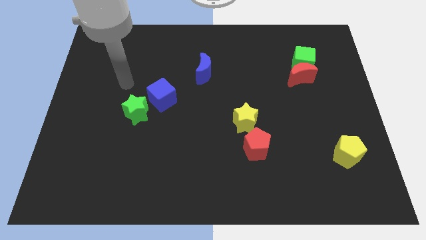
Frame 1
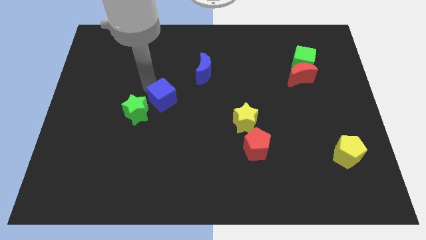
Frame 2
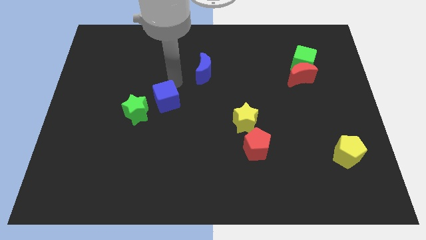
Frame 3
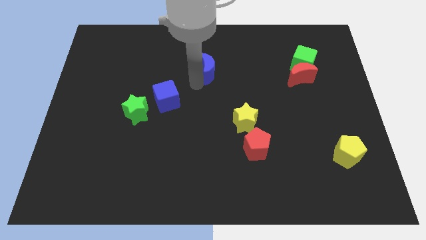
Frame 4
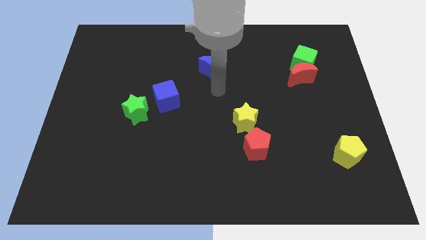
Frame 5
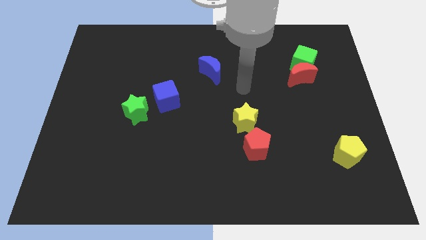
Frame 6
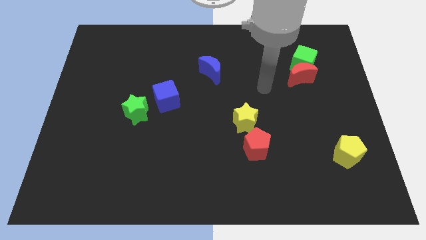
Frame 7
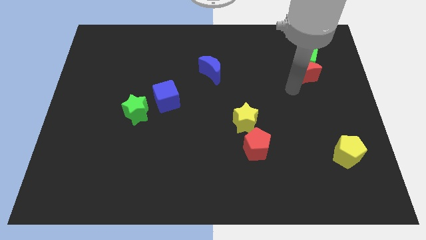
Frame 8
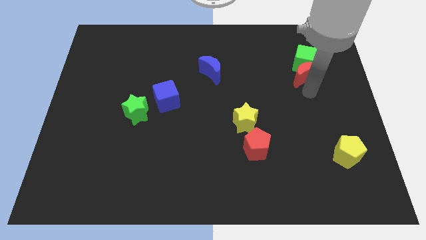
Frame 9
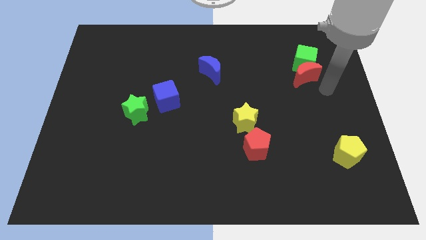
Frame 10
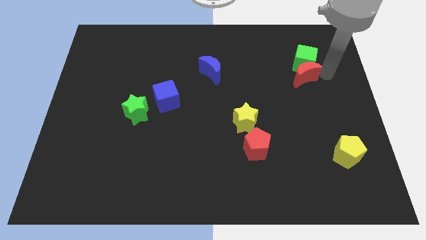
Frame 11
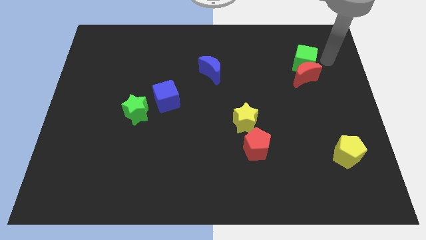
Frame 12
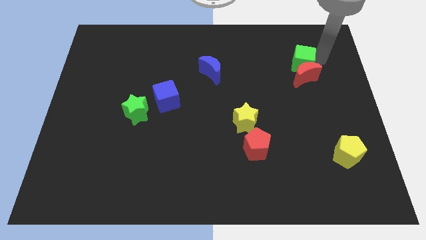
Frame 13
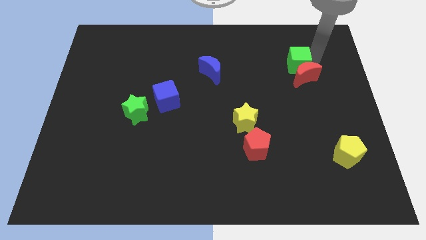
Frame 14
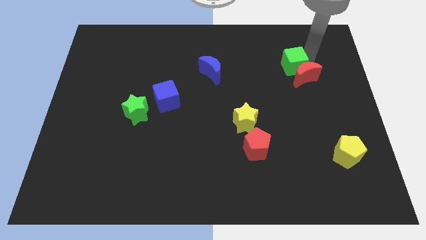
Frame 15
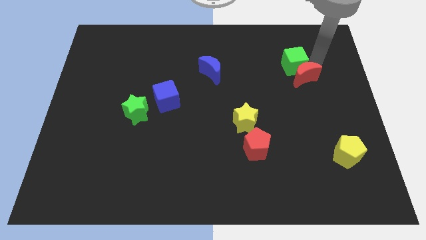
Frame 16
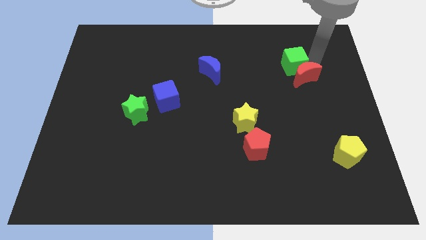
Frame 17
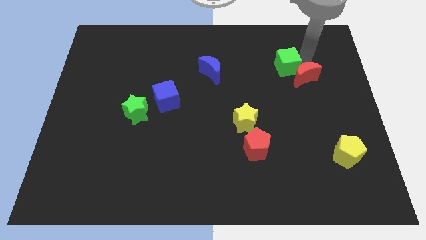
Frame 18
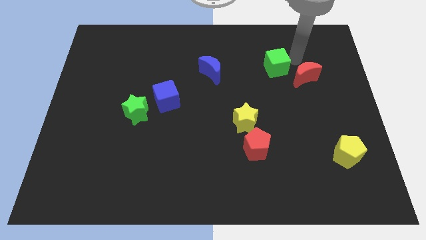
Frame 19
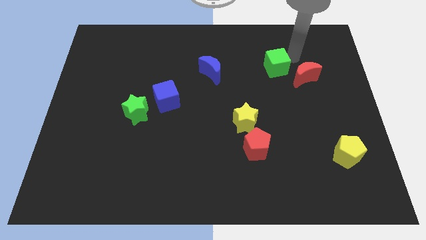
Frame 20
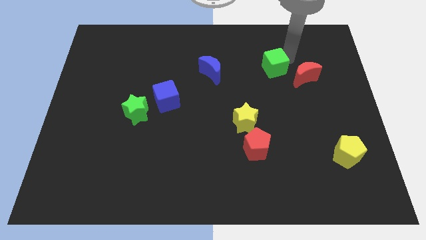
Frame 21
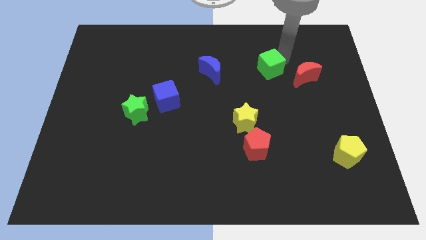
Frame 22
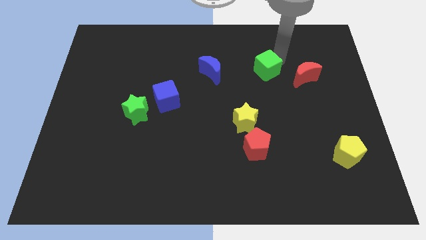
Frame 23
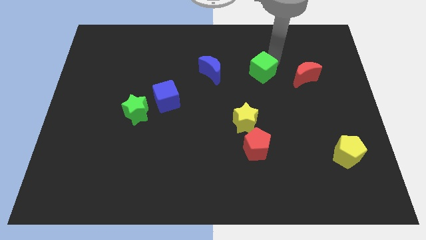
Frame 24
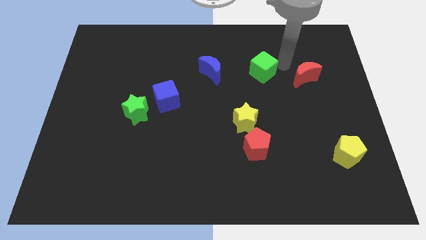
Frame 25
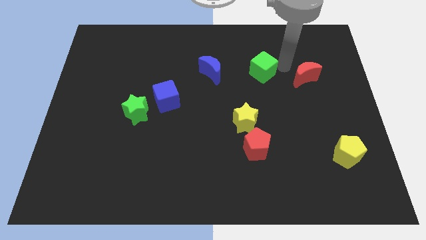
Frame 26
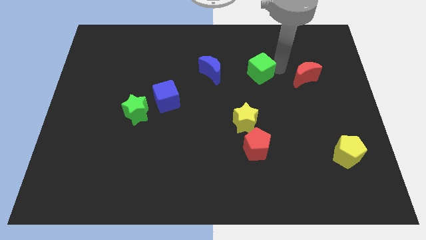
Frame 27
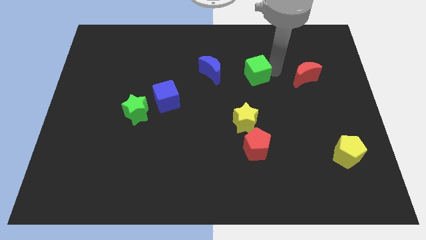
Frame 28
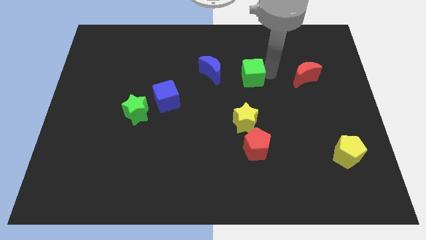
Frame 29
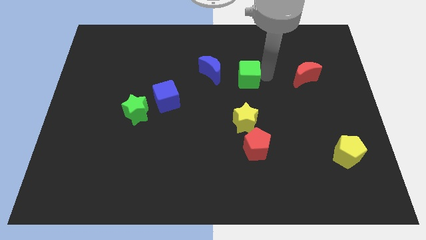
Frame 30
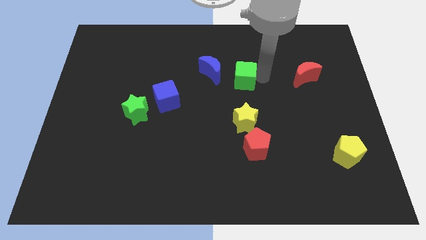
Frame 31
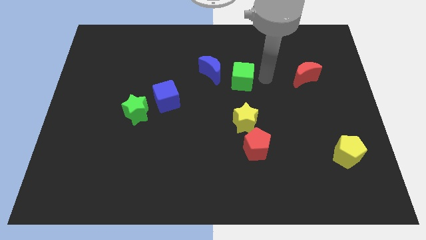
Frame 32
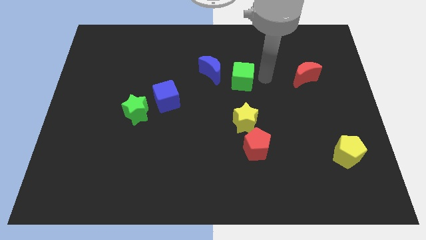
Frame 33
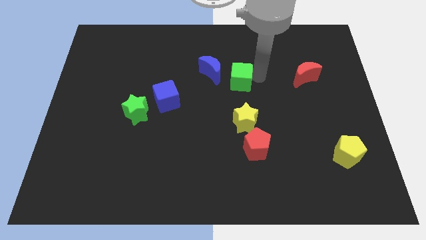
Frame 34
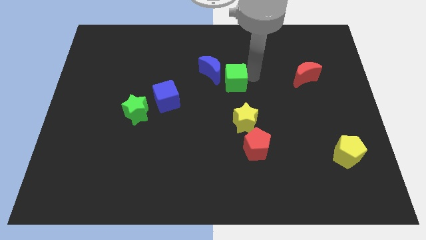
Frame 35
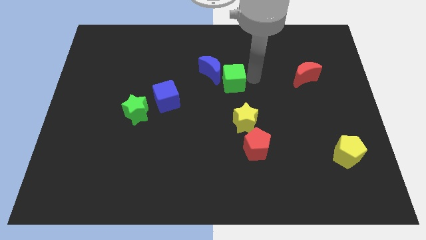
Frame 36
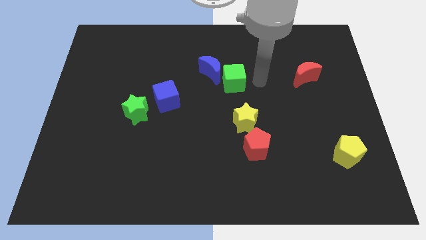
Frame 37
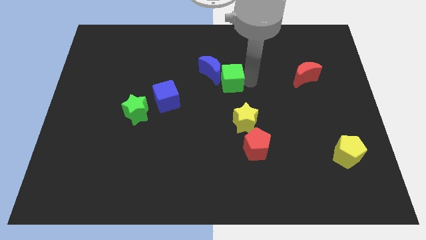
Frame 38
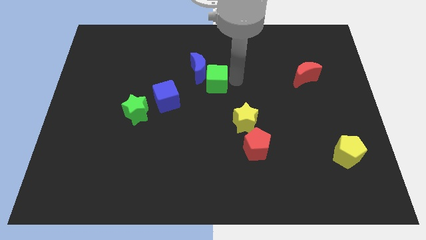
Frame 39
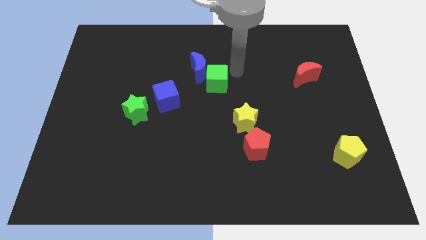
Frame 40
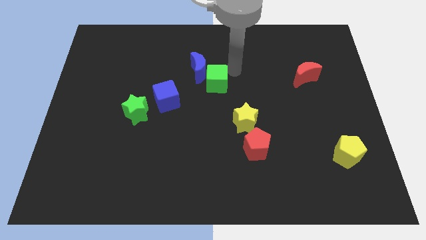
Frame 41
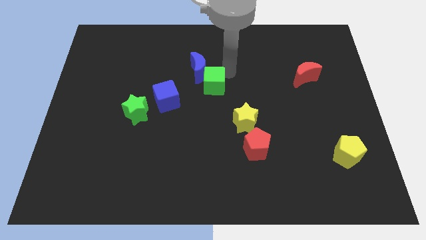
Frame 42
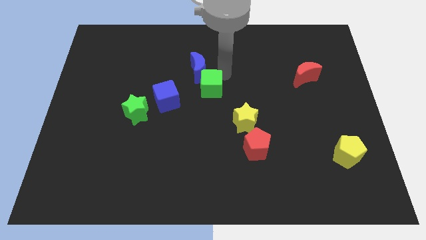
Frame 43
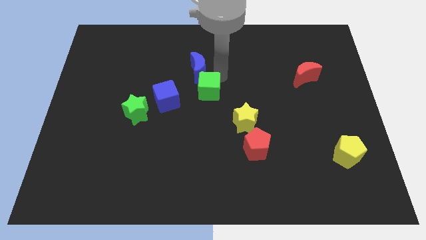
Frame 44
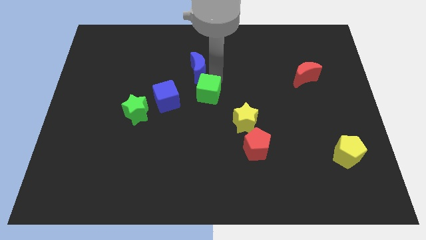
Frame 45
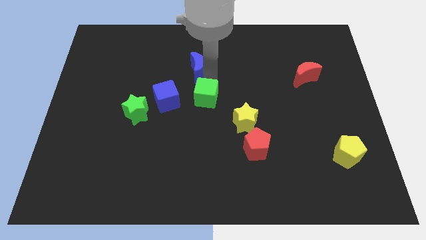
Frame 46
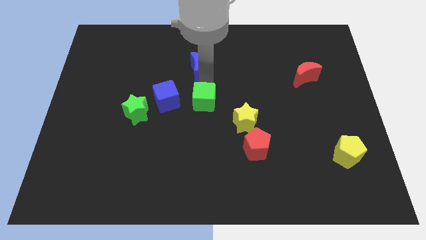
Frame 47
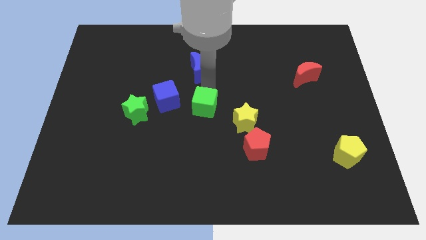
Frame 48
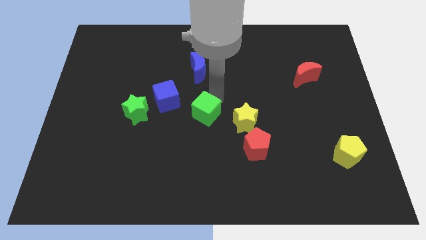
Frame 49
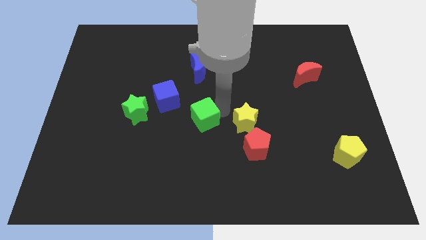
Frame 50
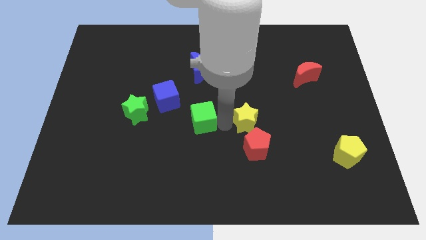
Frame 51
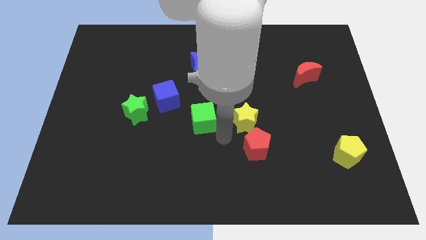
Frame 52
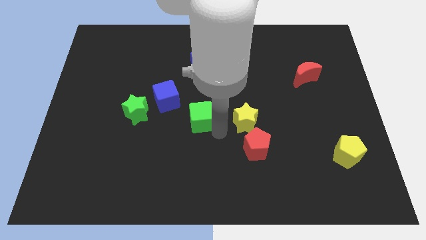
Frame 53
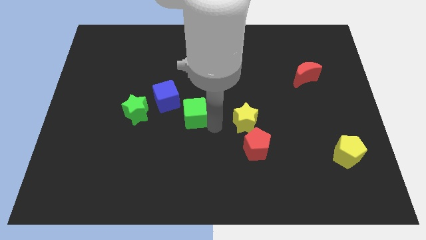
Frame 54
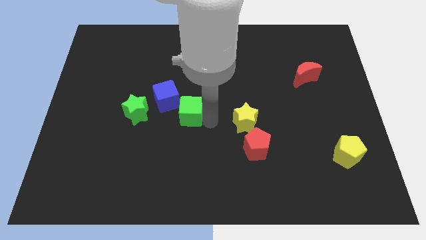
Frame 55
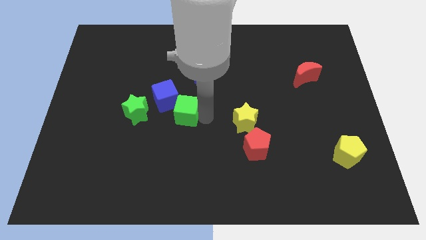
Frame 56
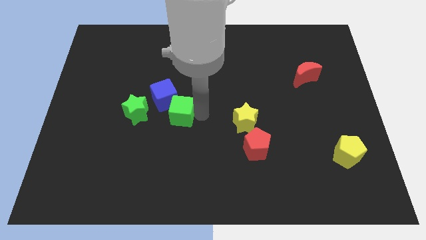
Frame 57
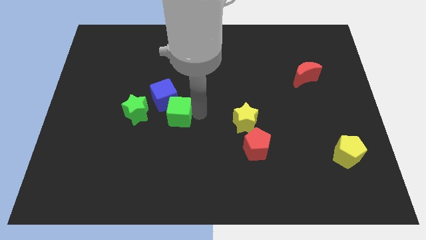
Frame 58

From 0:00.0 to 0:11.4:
slide the green cube towards the blue cube

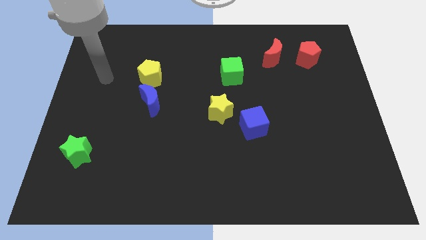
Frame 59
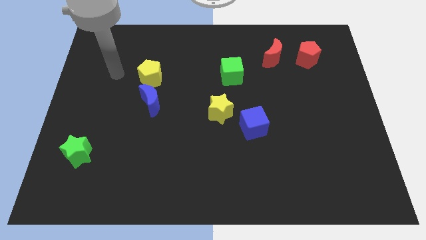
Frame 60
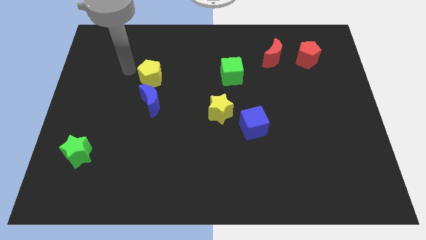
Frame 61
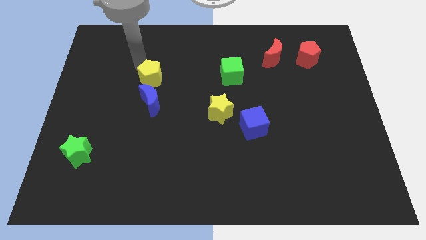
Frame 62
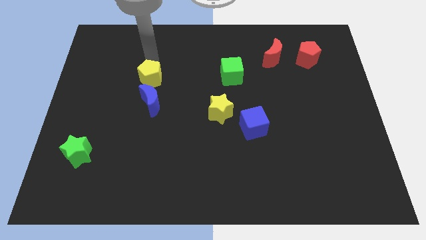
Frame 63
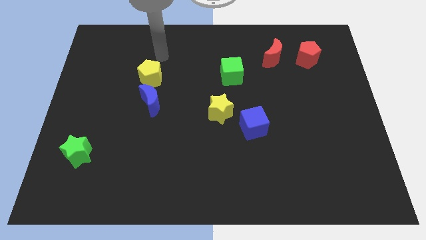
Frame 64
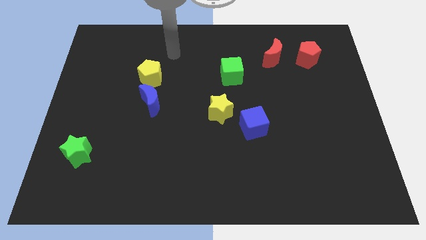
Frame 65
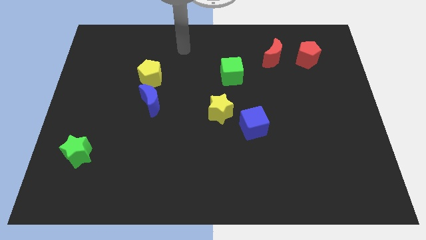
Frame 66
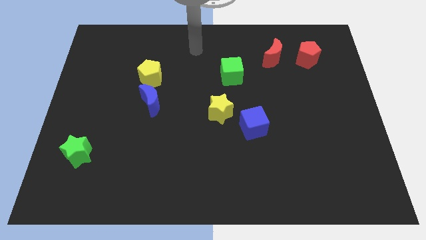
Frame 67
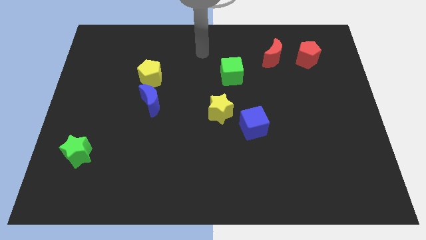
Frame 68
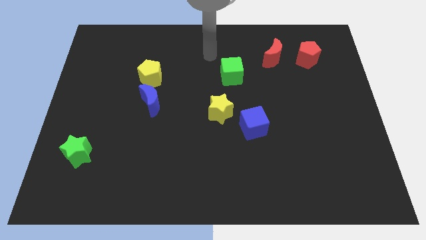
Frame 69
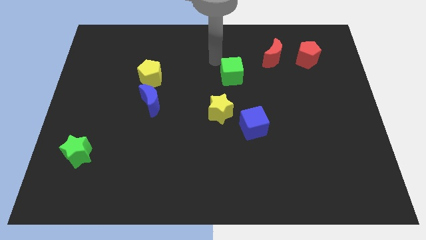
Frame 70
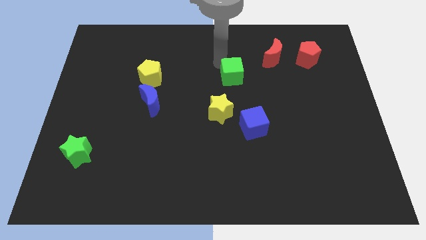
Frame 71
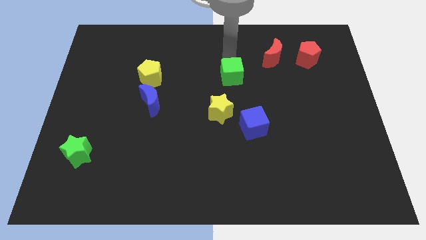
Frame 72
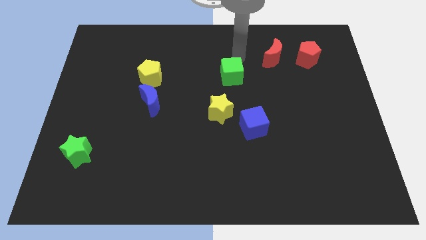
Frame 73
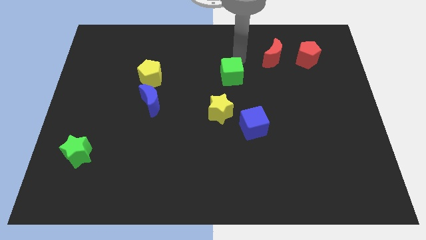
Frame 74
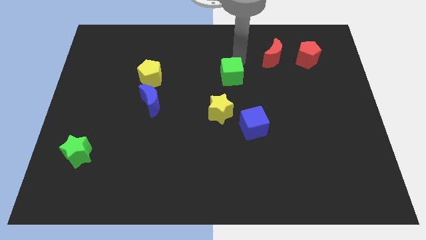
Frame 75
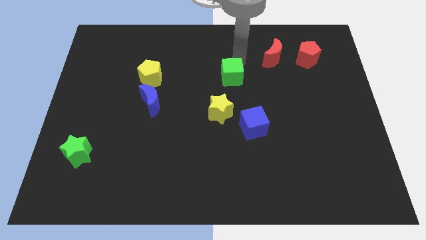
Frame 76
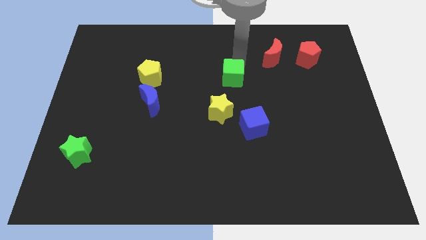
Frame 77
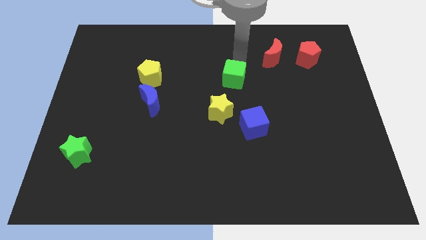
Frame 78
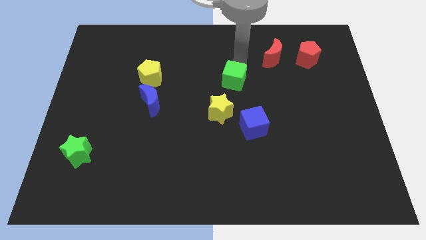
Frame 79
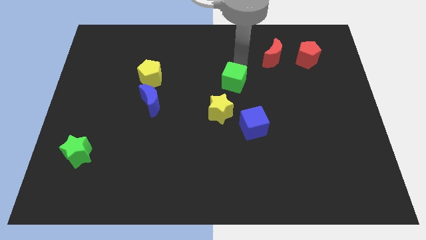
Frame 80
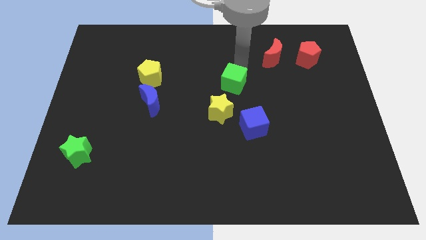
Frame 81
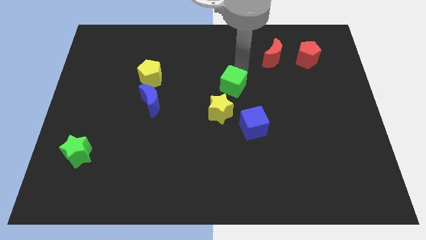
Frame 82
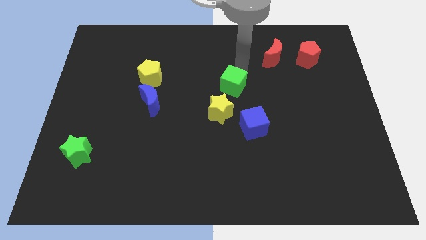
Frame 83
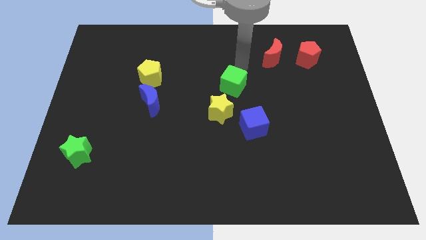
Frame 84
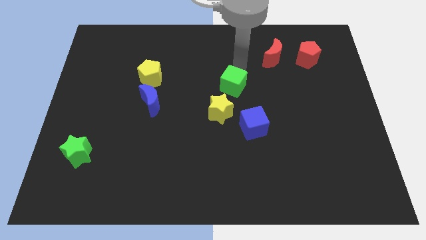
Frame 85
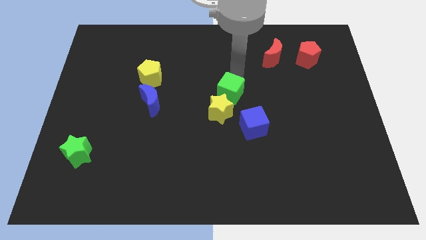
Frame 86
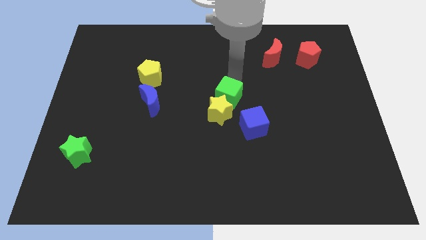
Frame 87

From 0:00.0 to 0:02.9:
slide the green cube close to the yellow star
